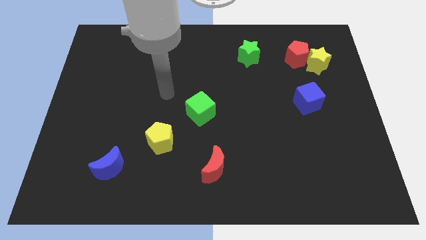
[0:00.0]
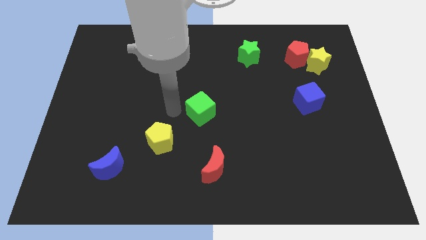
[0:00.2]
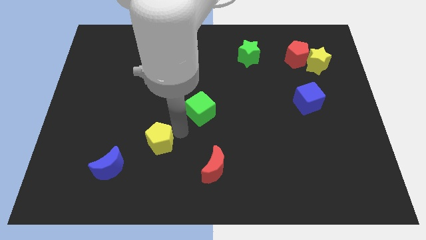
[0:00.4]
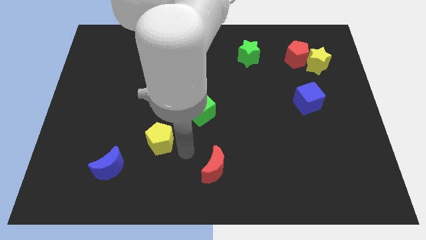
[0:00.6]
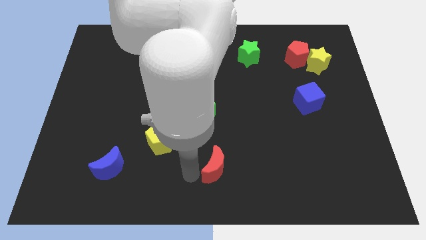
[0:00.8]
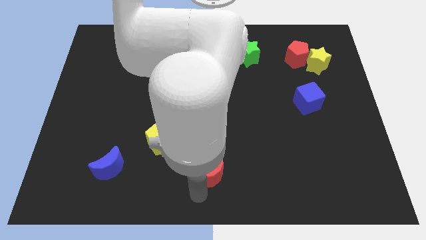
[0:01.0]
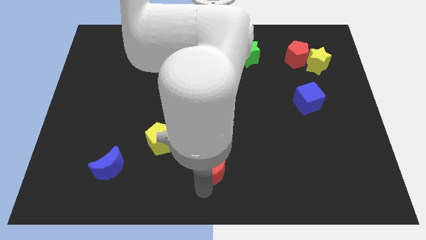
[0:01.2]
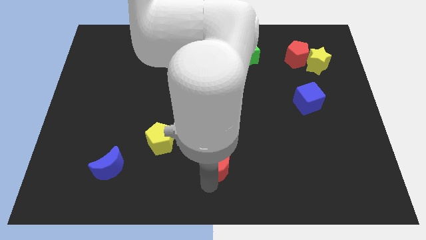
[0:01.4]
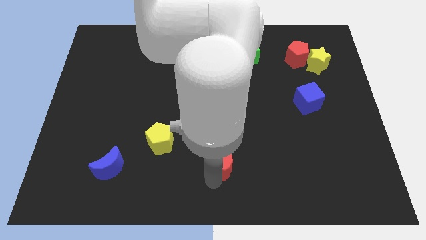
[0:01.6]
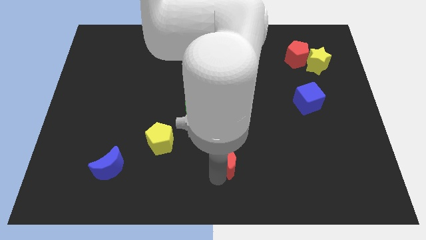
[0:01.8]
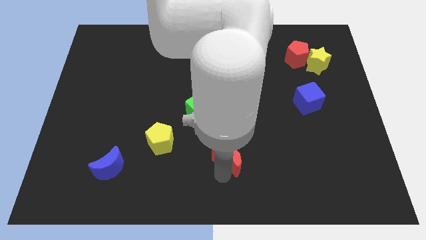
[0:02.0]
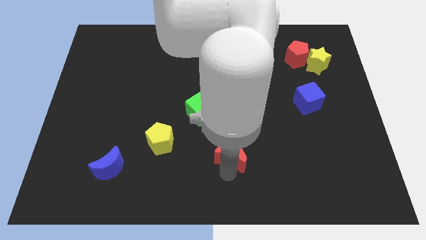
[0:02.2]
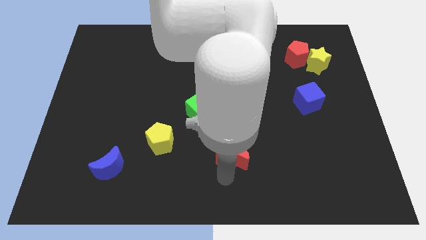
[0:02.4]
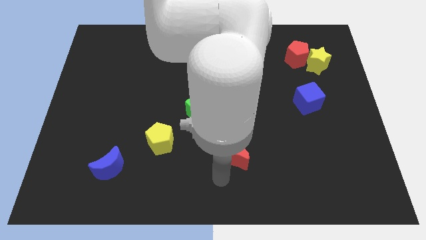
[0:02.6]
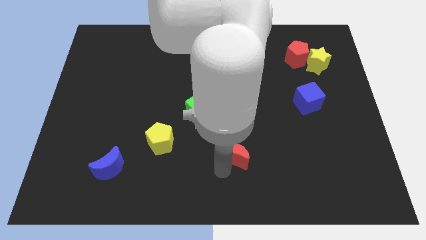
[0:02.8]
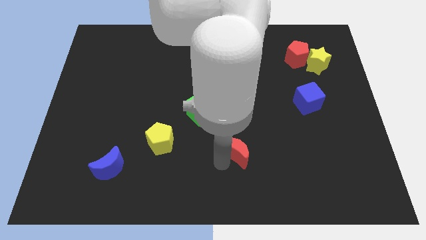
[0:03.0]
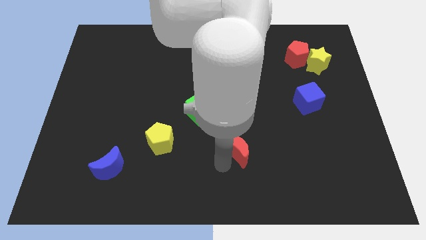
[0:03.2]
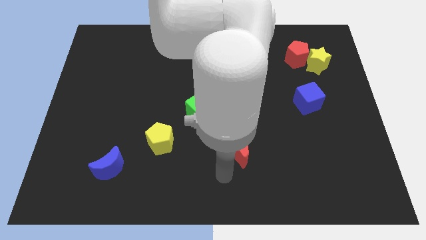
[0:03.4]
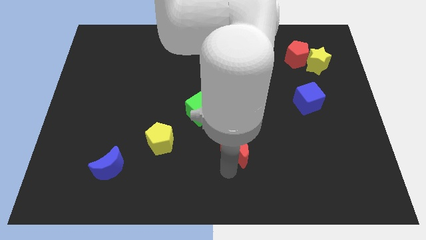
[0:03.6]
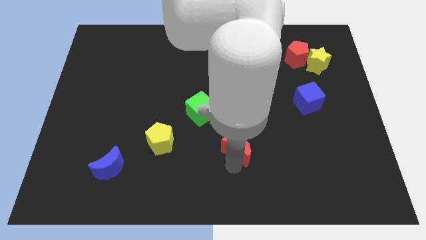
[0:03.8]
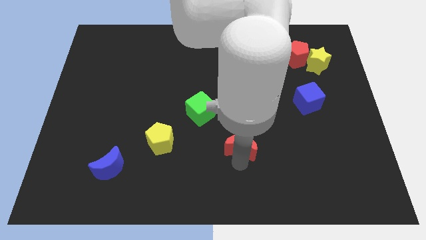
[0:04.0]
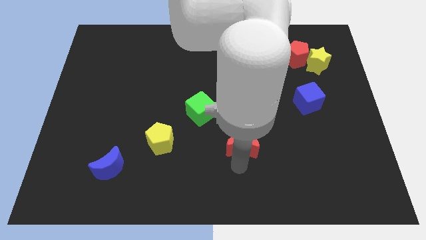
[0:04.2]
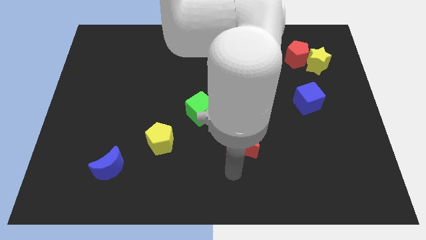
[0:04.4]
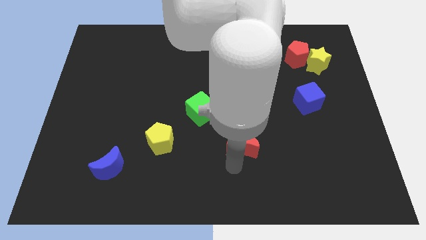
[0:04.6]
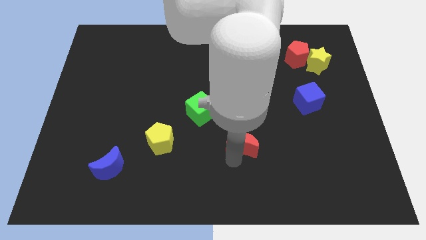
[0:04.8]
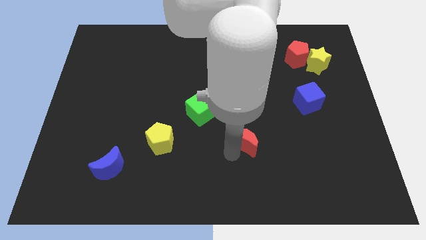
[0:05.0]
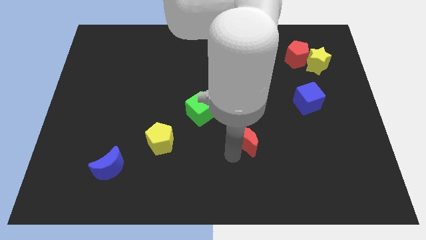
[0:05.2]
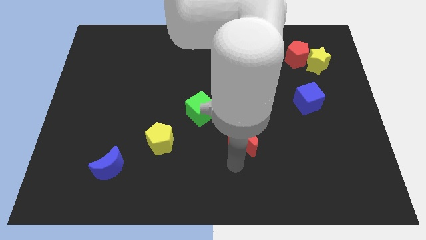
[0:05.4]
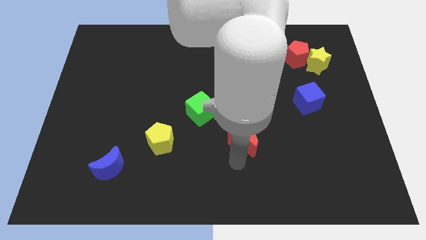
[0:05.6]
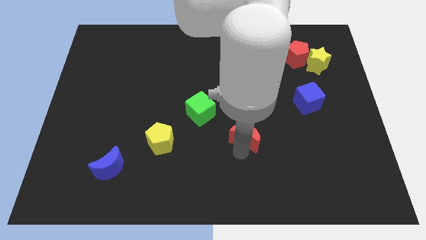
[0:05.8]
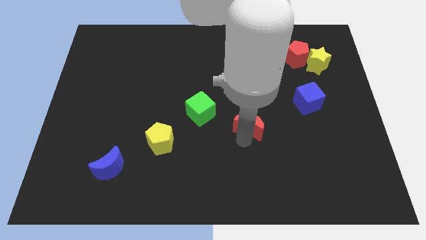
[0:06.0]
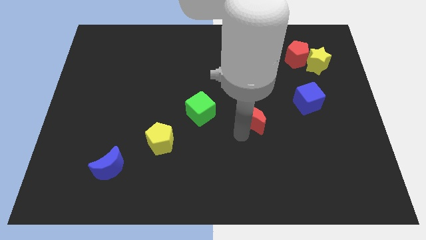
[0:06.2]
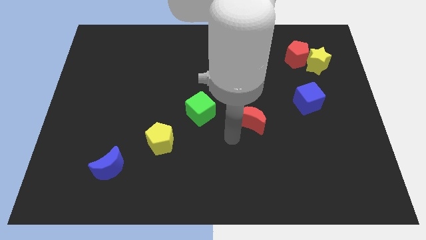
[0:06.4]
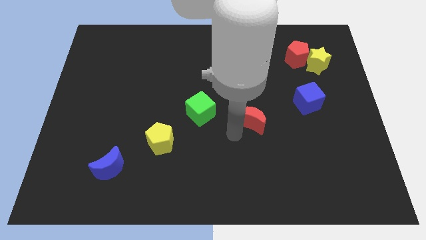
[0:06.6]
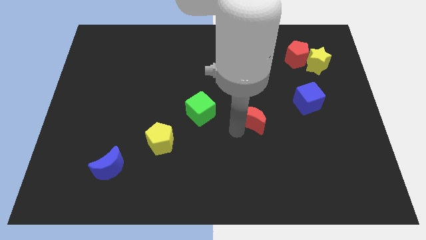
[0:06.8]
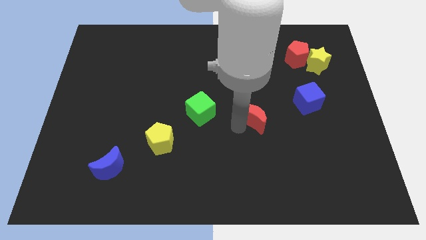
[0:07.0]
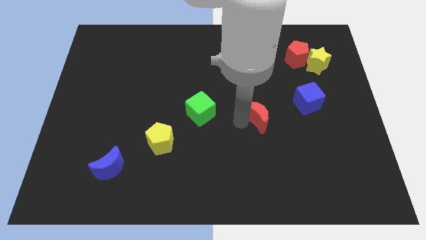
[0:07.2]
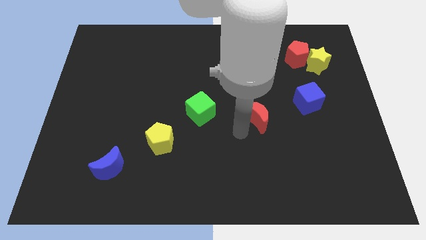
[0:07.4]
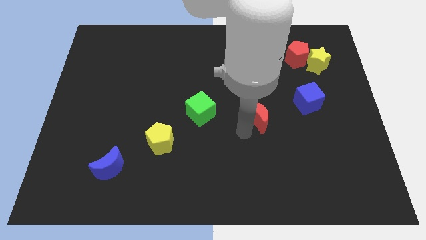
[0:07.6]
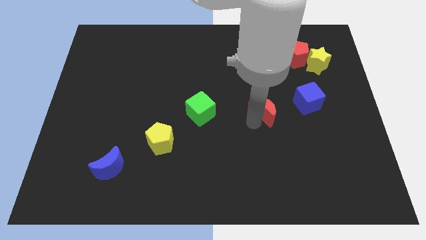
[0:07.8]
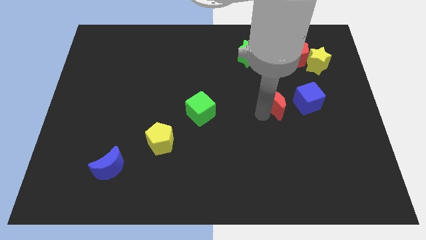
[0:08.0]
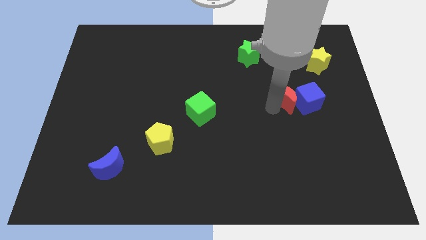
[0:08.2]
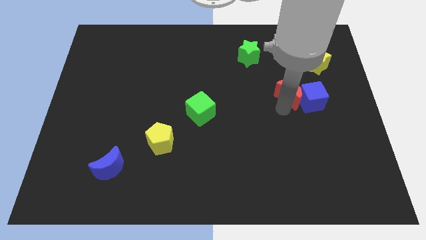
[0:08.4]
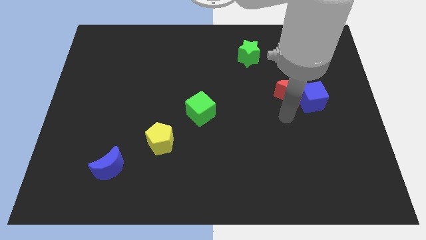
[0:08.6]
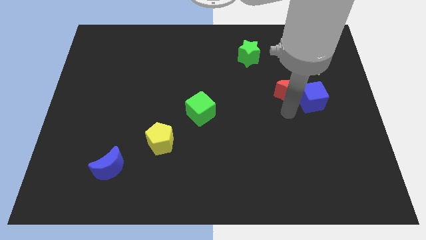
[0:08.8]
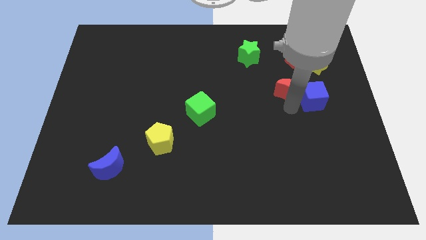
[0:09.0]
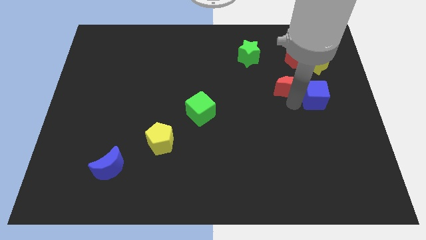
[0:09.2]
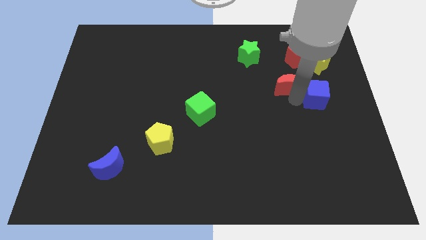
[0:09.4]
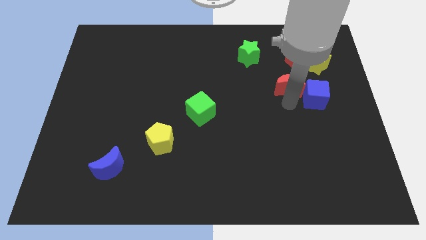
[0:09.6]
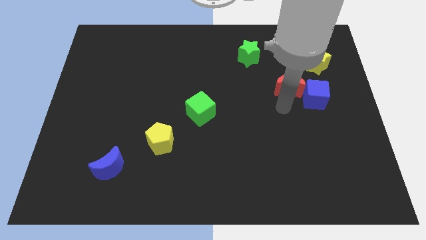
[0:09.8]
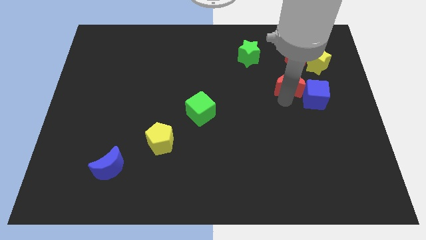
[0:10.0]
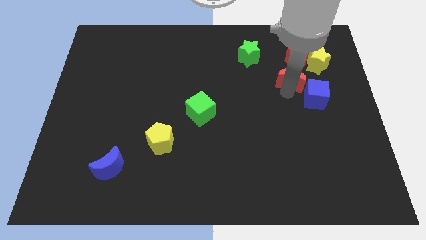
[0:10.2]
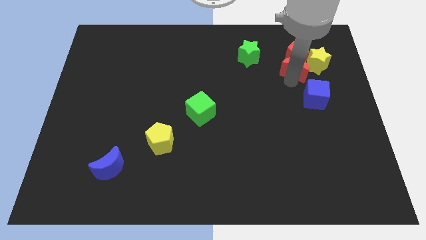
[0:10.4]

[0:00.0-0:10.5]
put the red moon next to the red pentagon

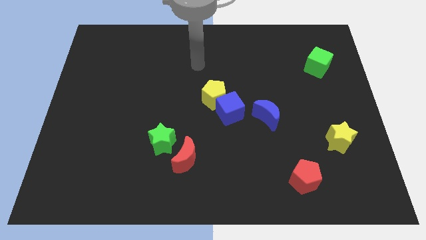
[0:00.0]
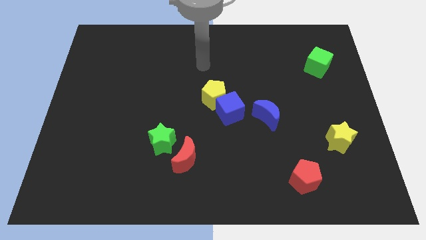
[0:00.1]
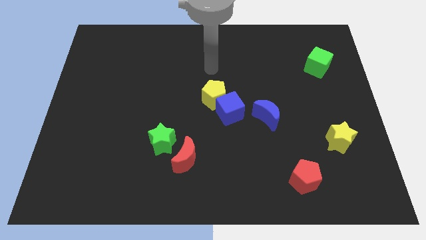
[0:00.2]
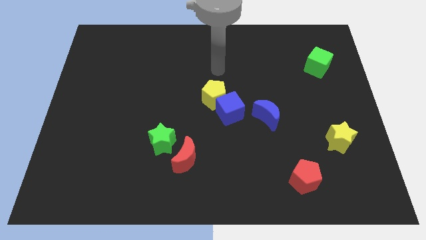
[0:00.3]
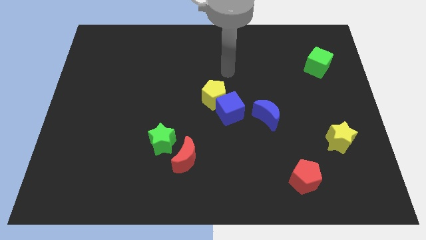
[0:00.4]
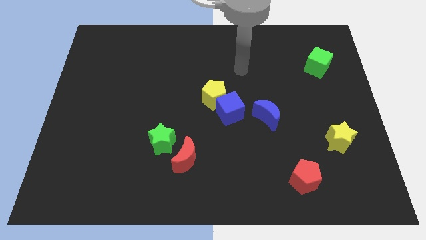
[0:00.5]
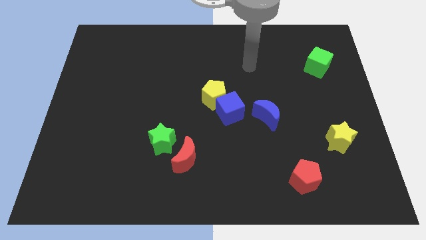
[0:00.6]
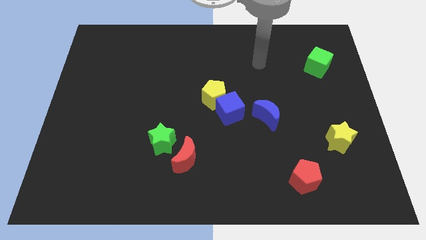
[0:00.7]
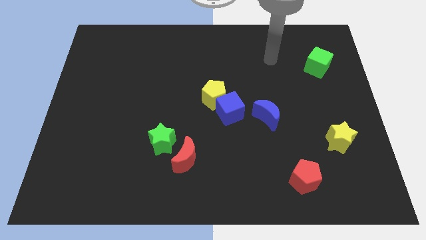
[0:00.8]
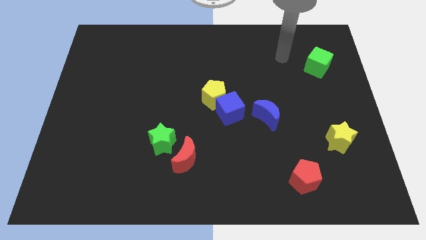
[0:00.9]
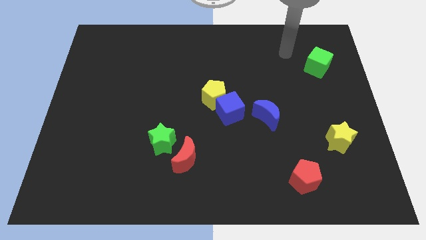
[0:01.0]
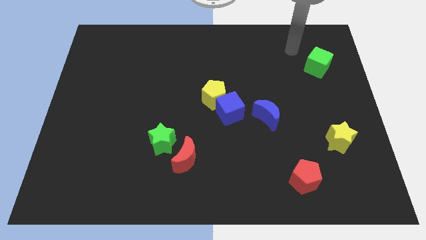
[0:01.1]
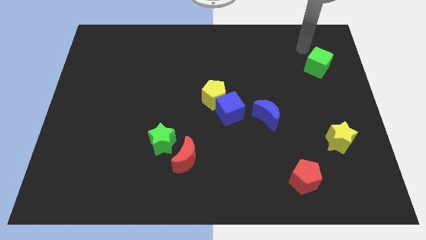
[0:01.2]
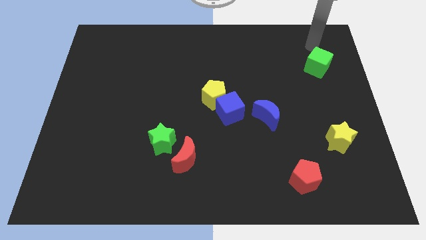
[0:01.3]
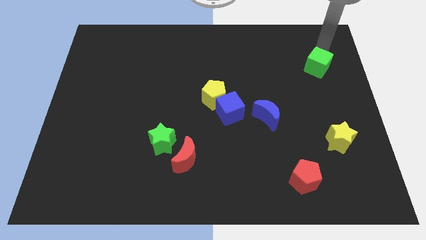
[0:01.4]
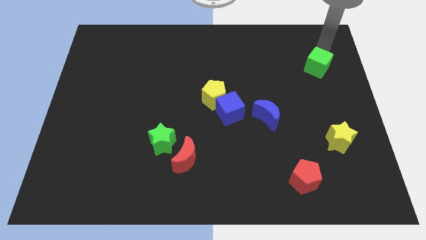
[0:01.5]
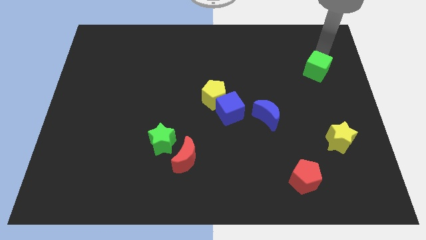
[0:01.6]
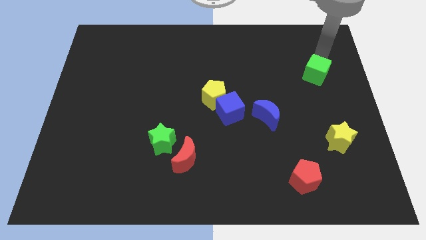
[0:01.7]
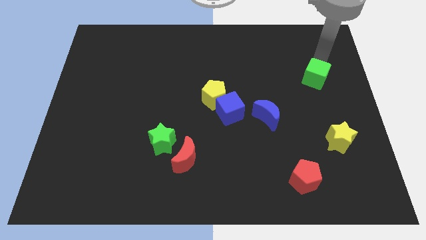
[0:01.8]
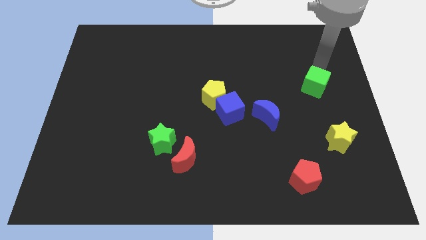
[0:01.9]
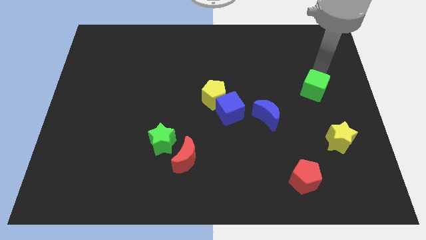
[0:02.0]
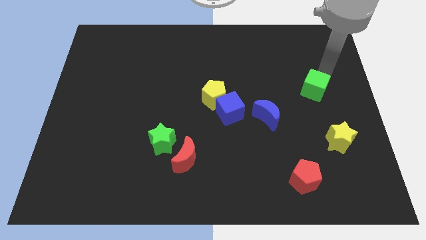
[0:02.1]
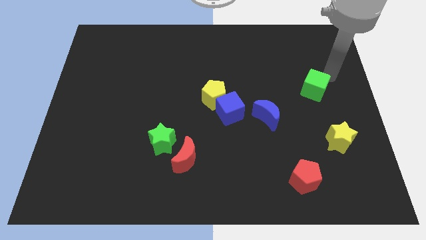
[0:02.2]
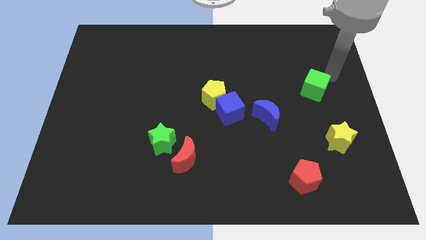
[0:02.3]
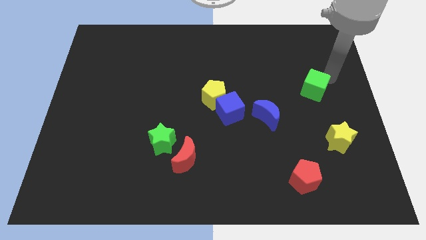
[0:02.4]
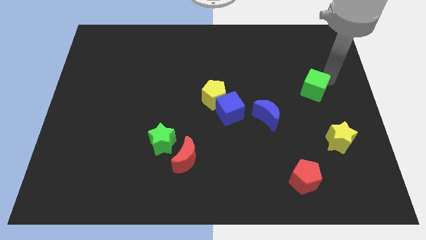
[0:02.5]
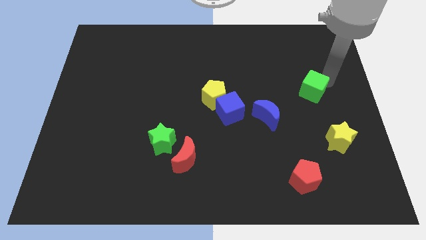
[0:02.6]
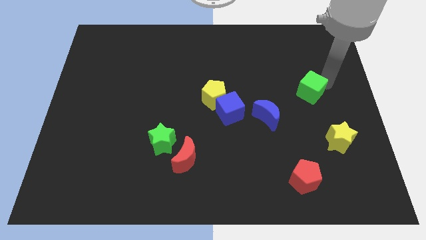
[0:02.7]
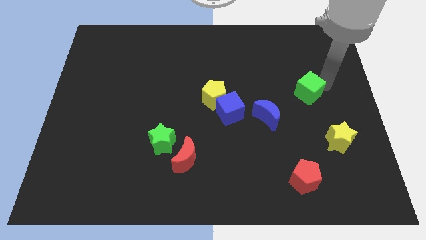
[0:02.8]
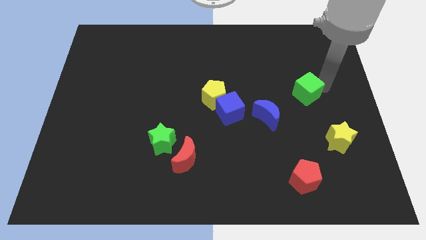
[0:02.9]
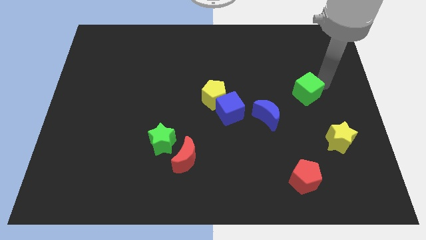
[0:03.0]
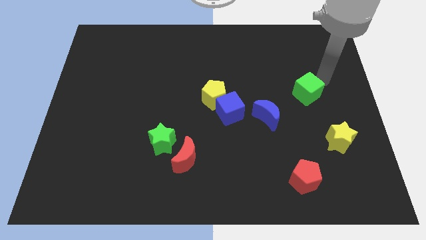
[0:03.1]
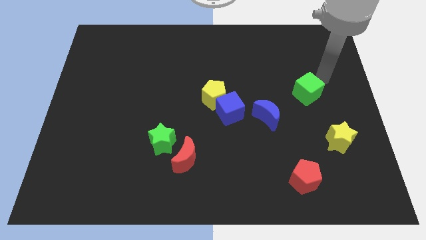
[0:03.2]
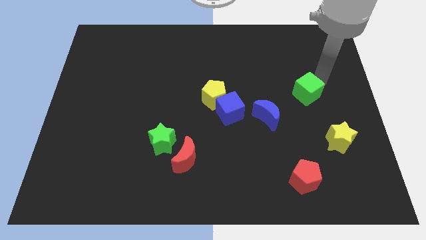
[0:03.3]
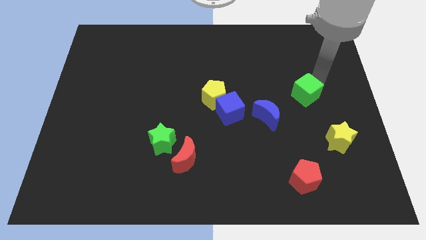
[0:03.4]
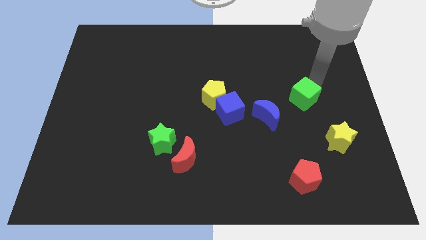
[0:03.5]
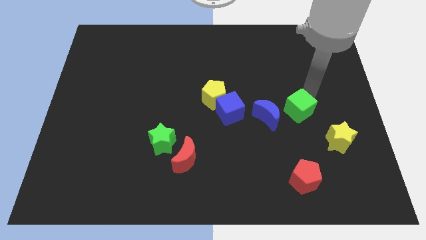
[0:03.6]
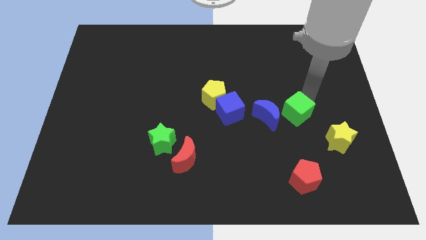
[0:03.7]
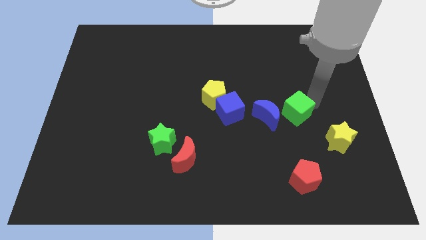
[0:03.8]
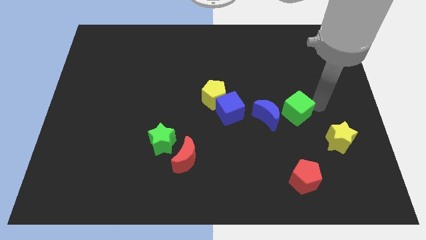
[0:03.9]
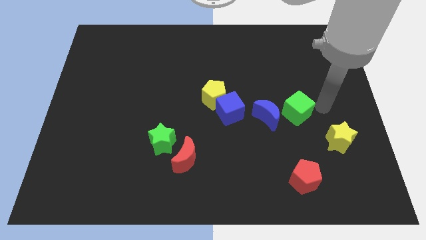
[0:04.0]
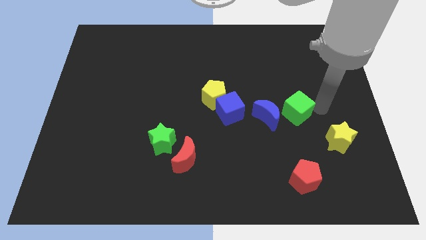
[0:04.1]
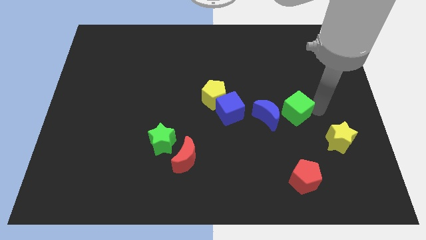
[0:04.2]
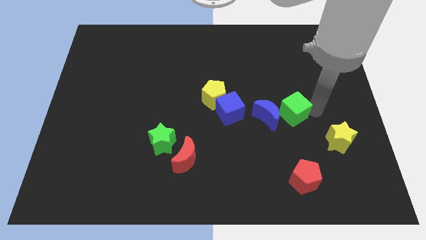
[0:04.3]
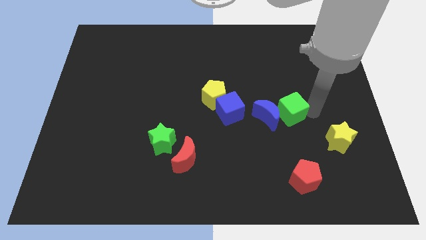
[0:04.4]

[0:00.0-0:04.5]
move the green cube close to the blue moon
